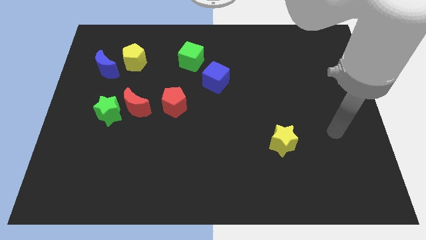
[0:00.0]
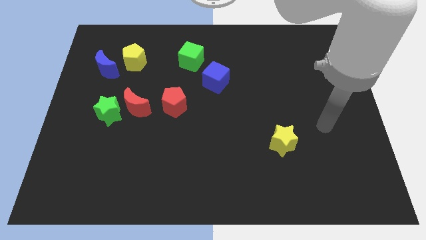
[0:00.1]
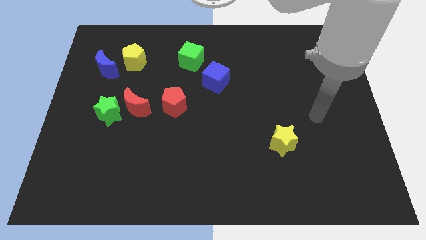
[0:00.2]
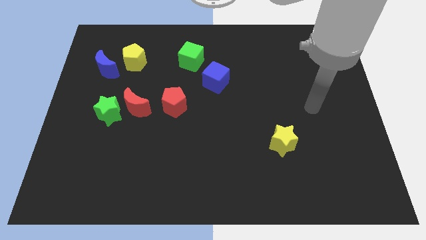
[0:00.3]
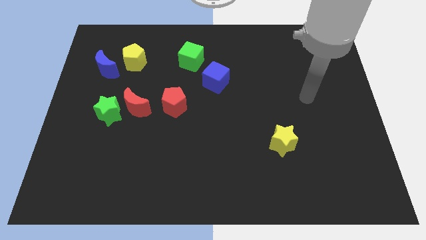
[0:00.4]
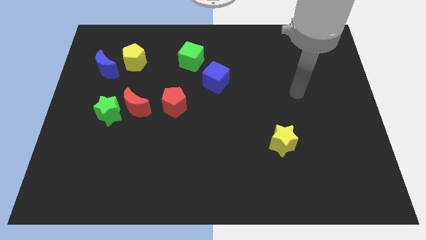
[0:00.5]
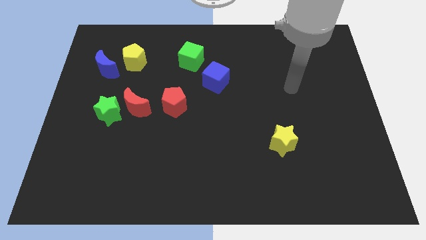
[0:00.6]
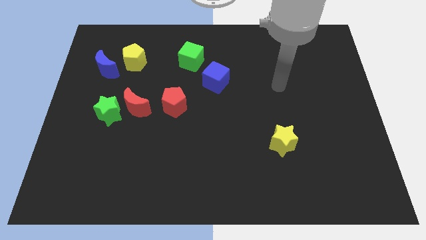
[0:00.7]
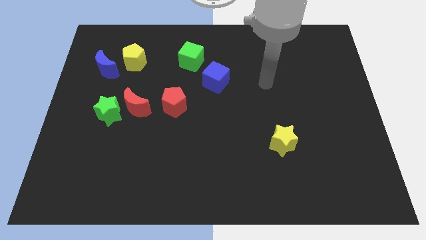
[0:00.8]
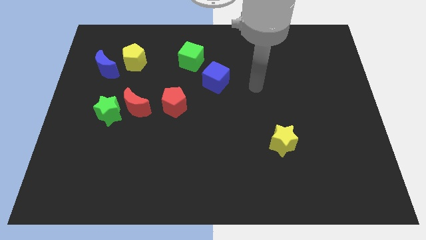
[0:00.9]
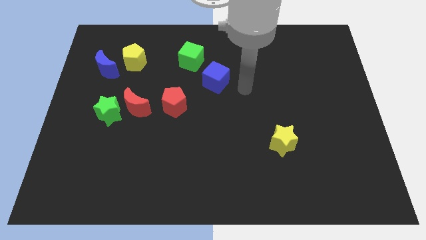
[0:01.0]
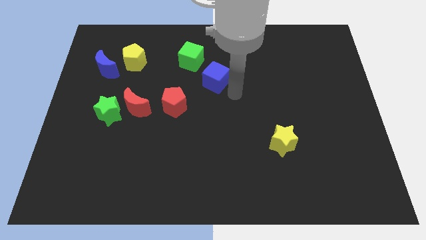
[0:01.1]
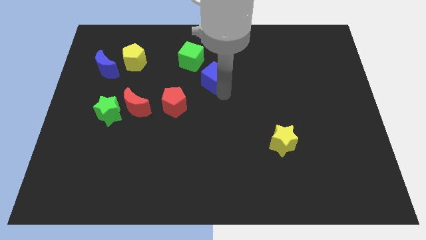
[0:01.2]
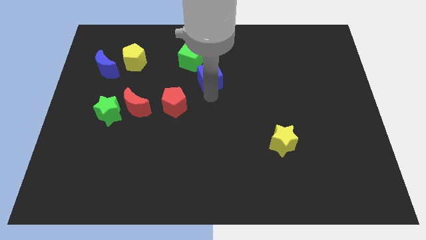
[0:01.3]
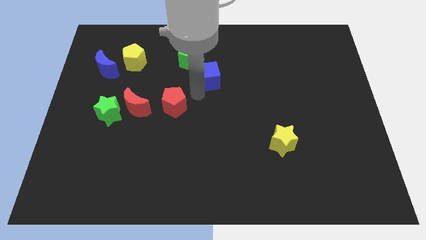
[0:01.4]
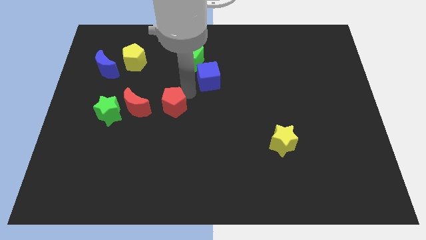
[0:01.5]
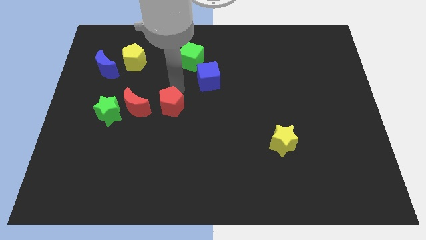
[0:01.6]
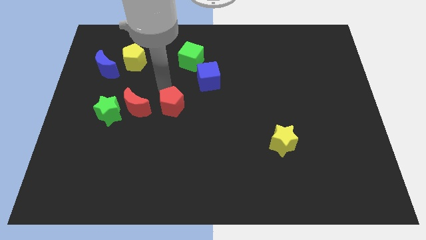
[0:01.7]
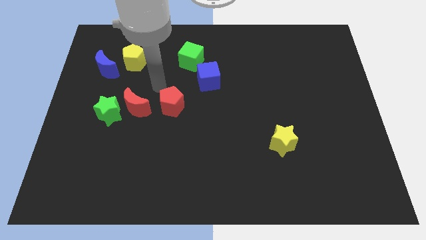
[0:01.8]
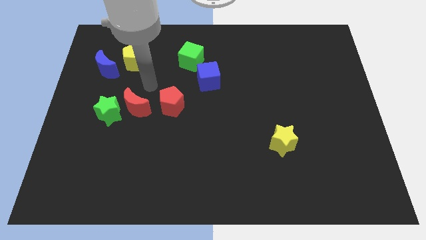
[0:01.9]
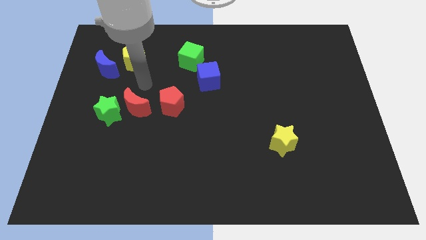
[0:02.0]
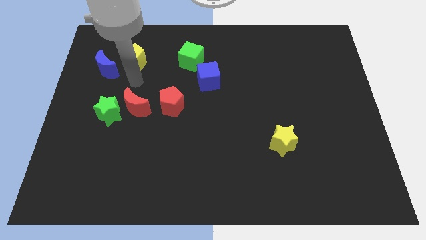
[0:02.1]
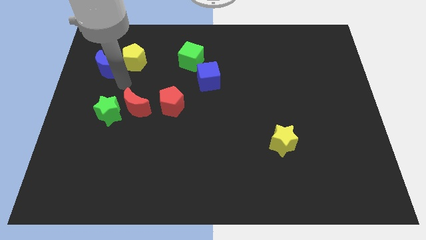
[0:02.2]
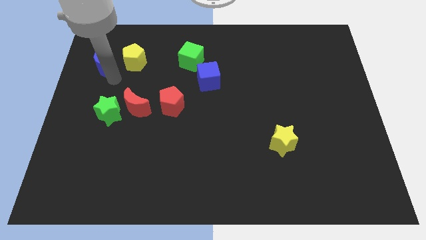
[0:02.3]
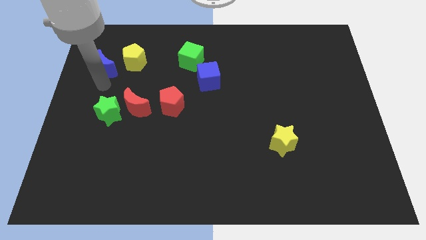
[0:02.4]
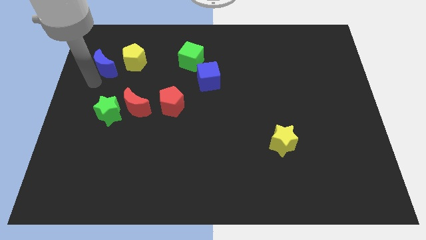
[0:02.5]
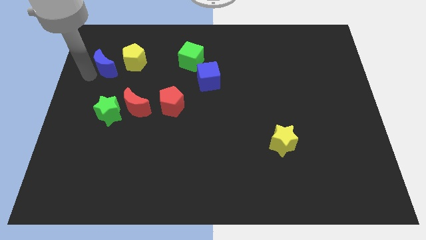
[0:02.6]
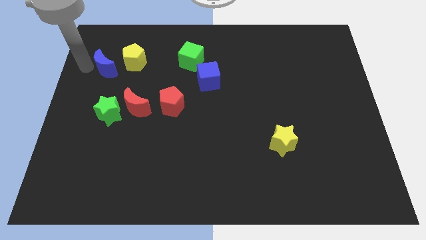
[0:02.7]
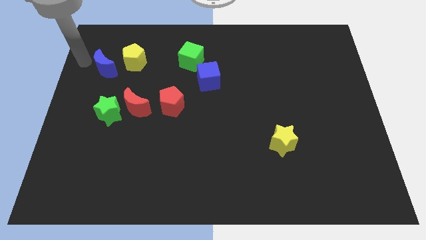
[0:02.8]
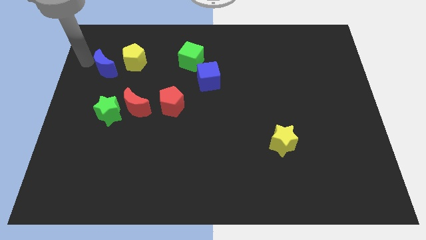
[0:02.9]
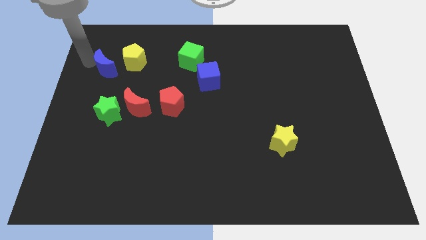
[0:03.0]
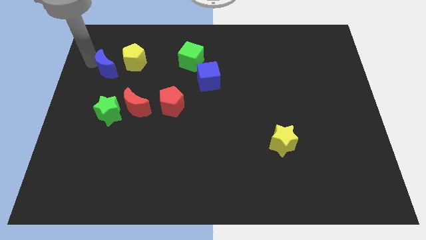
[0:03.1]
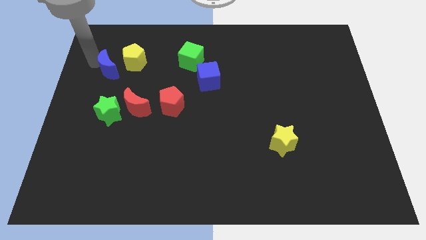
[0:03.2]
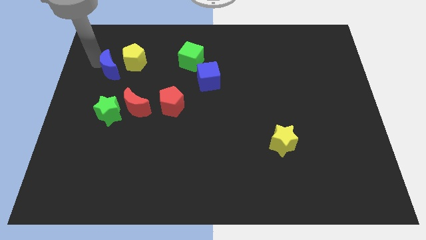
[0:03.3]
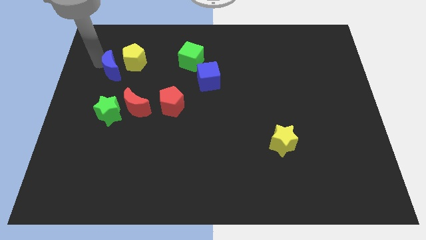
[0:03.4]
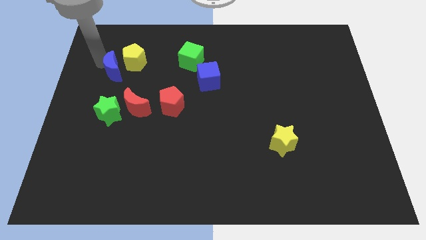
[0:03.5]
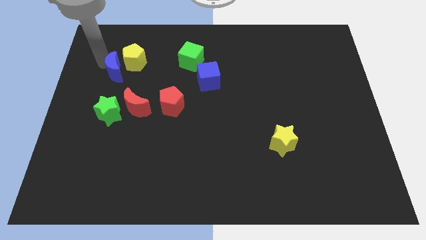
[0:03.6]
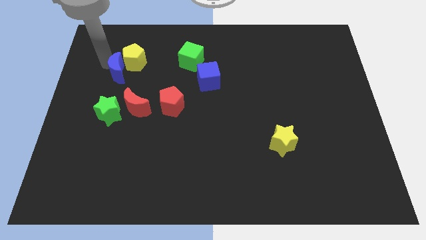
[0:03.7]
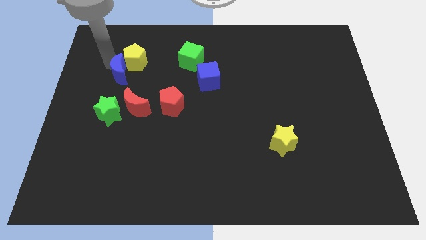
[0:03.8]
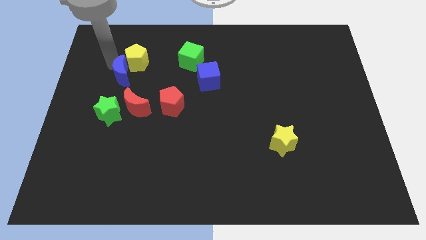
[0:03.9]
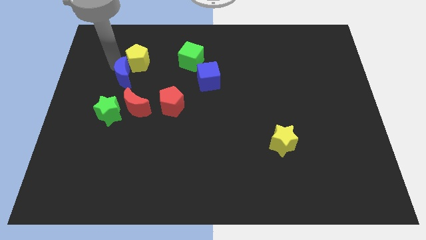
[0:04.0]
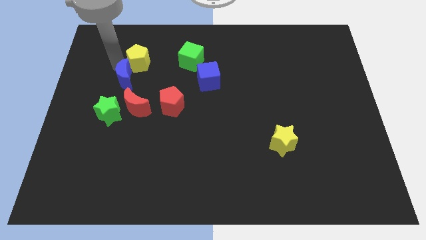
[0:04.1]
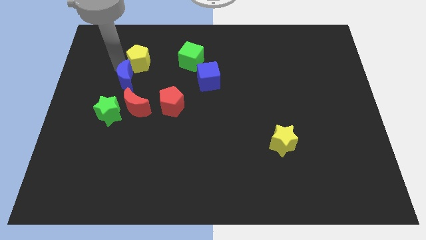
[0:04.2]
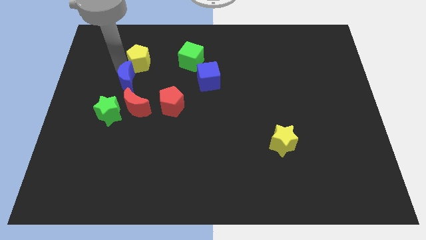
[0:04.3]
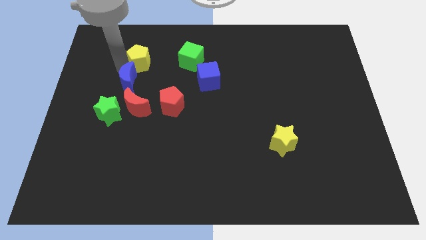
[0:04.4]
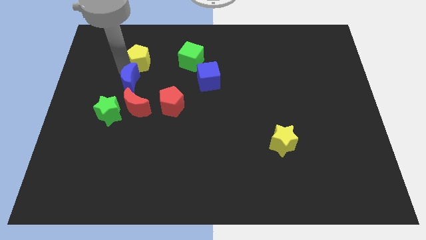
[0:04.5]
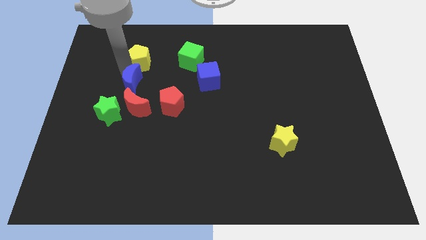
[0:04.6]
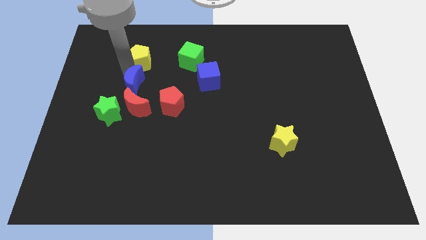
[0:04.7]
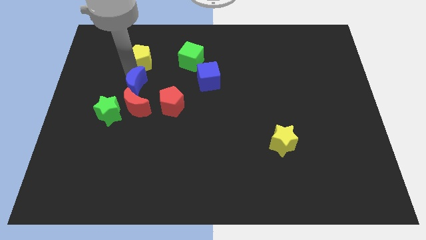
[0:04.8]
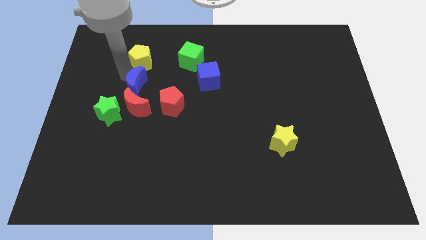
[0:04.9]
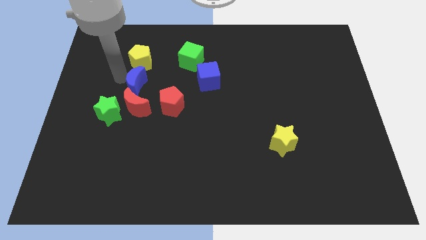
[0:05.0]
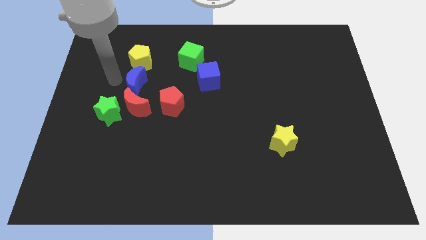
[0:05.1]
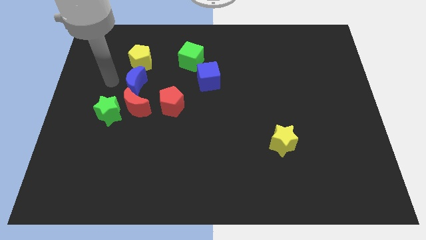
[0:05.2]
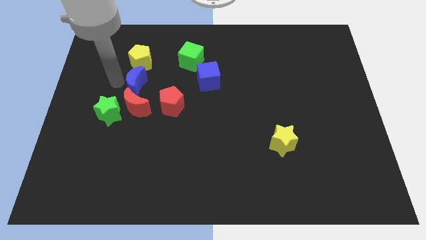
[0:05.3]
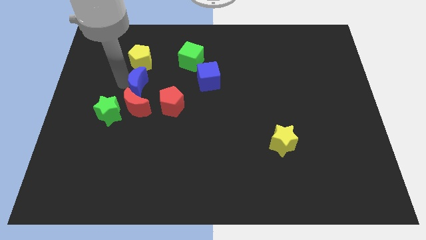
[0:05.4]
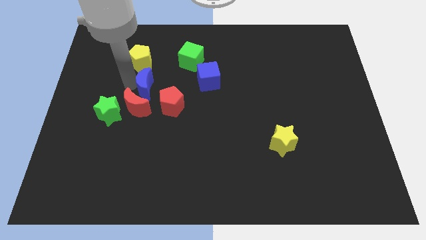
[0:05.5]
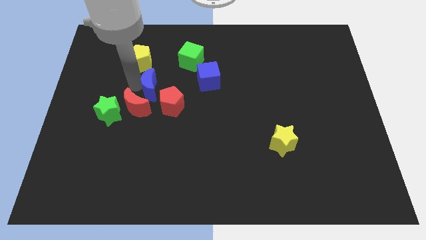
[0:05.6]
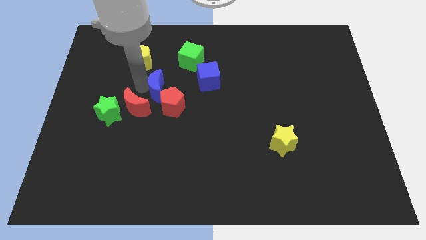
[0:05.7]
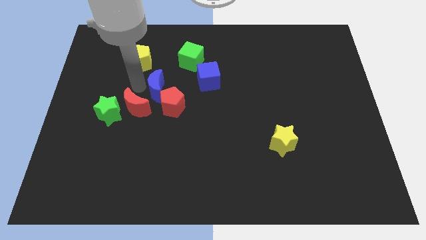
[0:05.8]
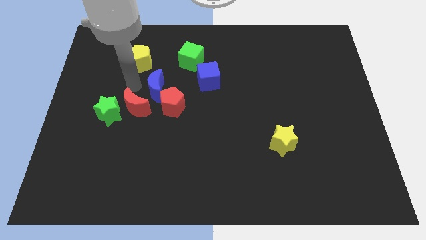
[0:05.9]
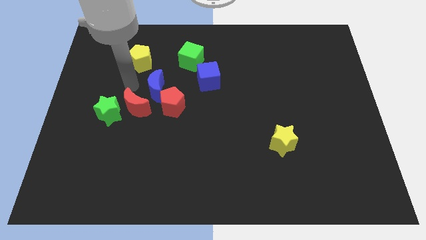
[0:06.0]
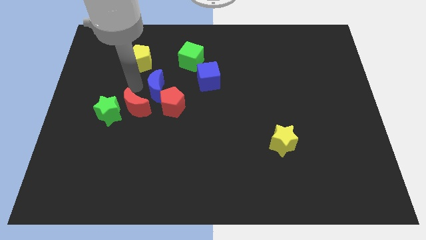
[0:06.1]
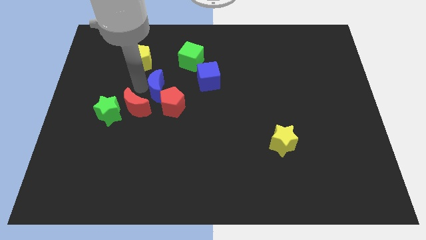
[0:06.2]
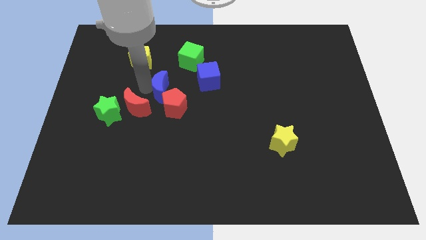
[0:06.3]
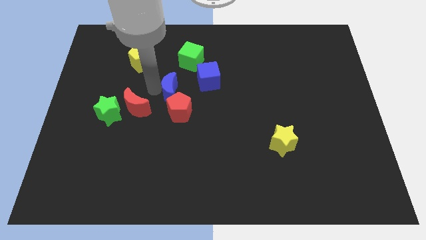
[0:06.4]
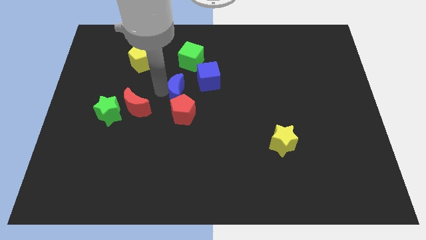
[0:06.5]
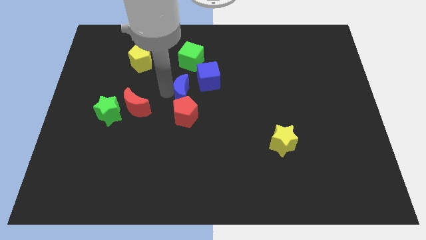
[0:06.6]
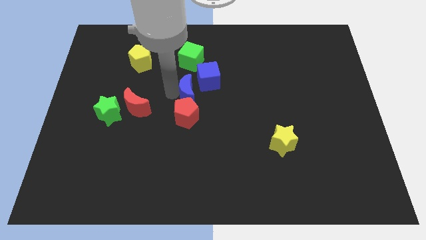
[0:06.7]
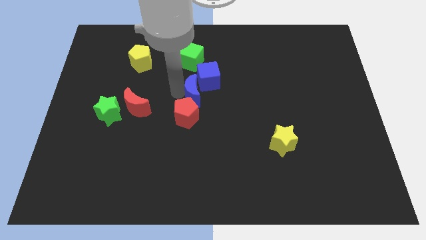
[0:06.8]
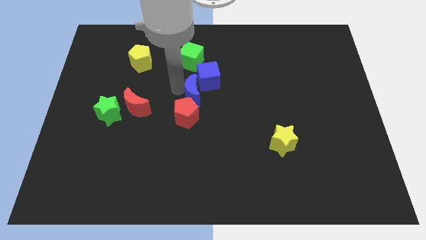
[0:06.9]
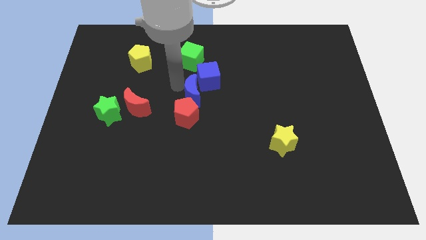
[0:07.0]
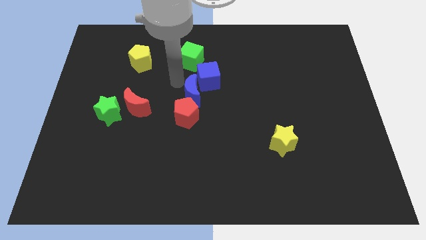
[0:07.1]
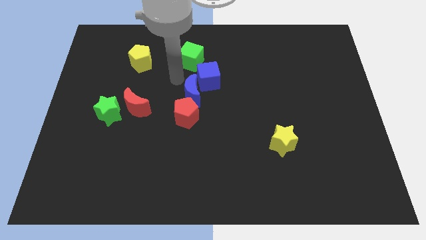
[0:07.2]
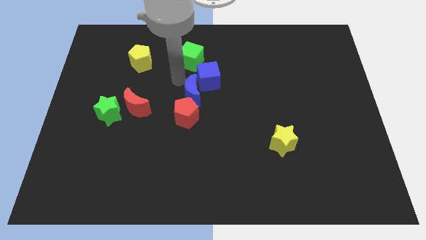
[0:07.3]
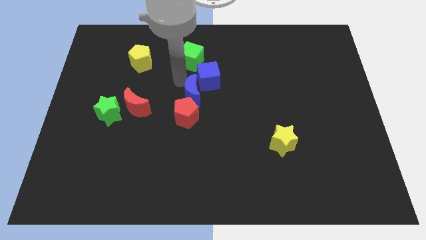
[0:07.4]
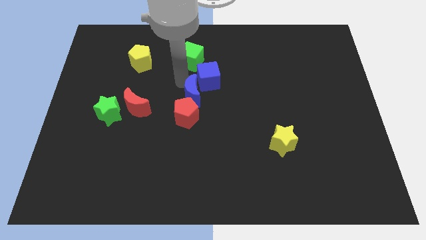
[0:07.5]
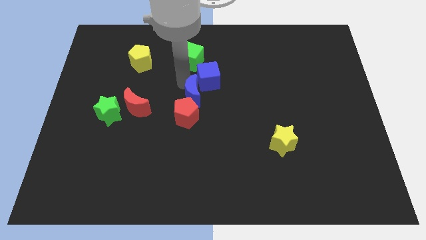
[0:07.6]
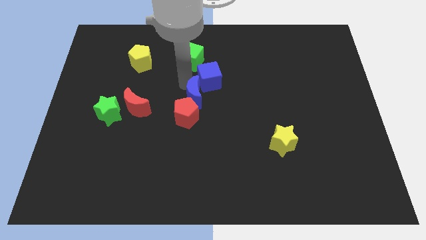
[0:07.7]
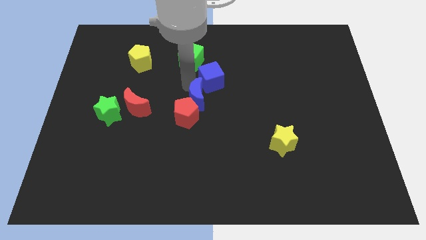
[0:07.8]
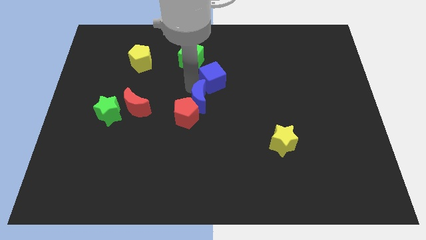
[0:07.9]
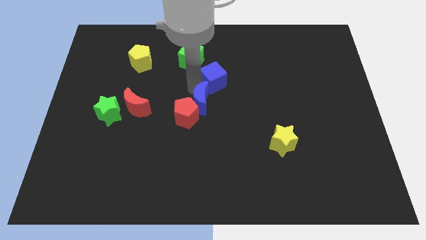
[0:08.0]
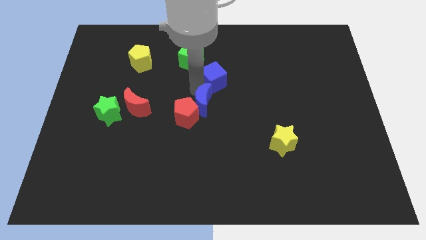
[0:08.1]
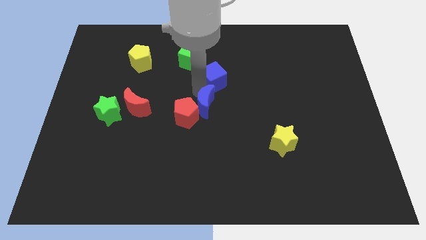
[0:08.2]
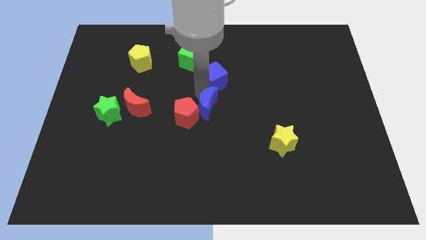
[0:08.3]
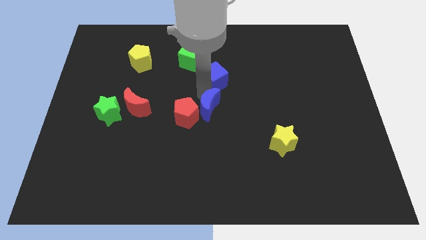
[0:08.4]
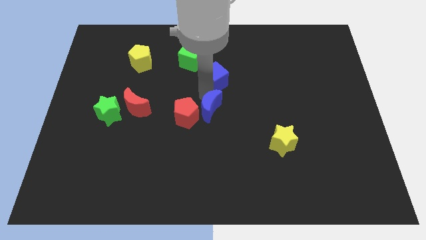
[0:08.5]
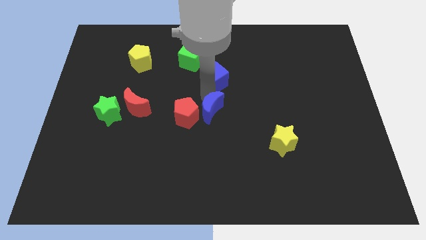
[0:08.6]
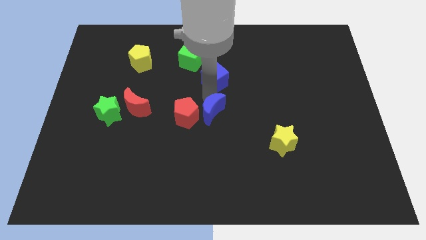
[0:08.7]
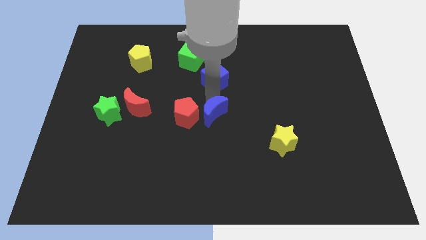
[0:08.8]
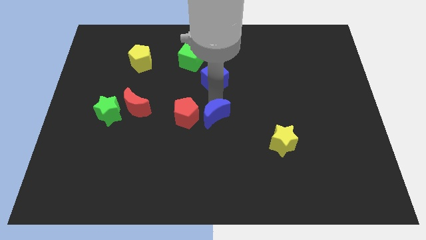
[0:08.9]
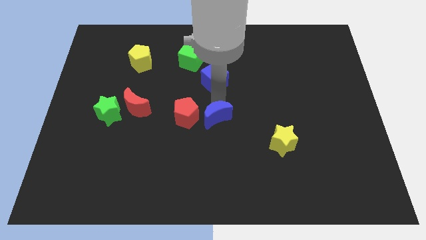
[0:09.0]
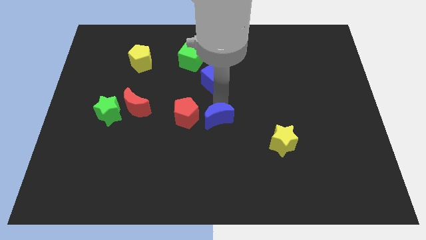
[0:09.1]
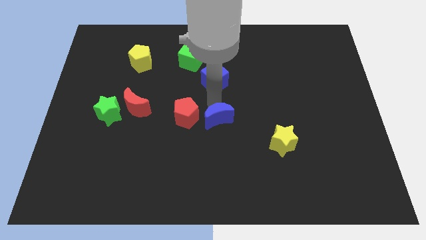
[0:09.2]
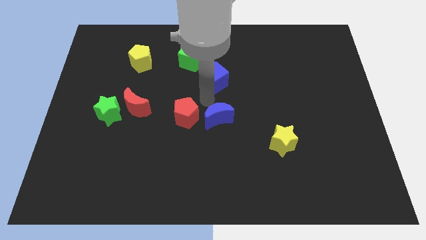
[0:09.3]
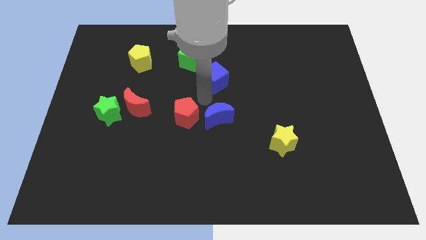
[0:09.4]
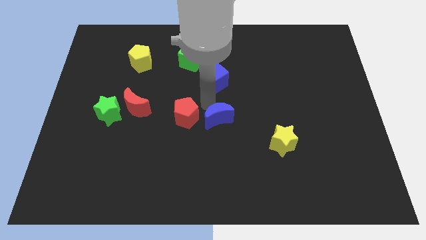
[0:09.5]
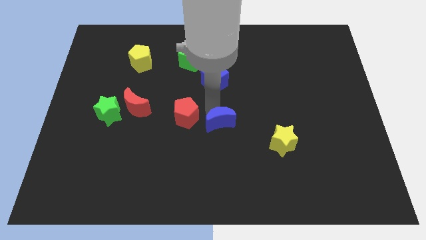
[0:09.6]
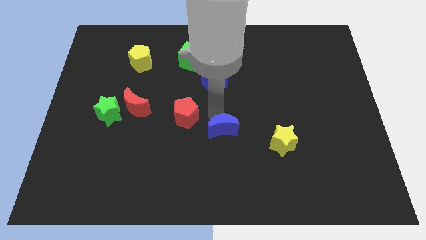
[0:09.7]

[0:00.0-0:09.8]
slide the blue moon to the left side of the yellow star
